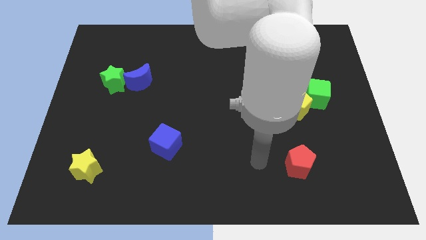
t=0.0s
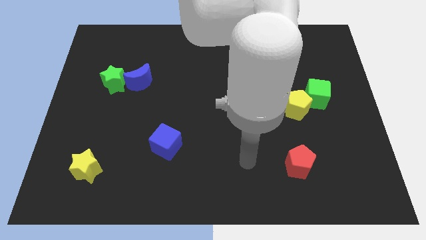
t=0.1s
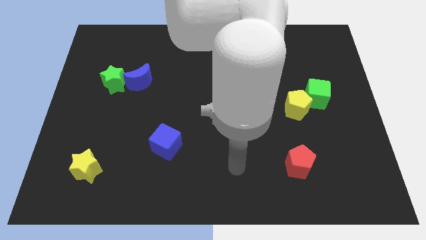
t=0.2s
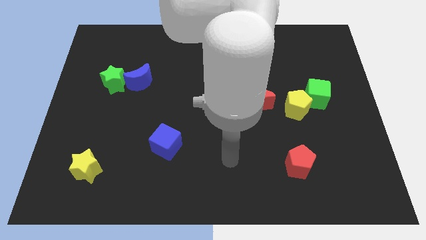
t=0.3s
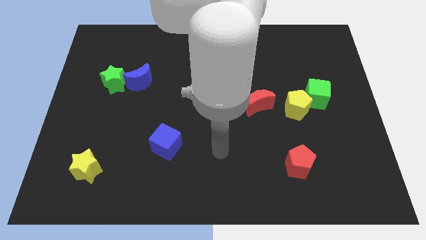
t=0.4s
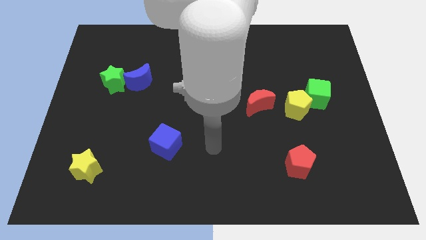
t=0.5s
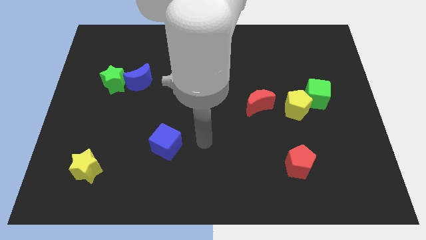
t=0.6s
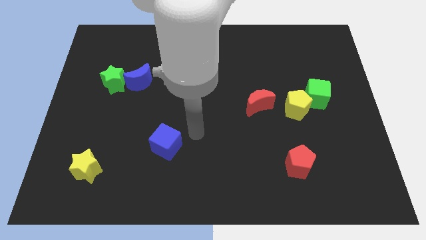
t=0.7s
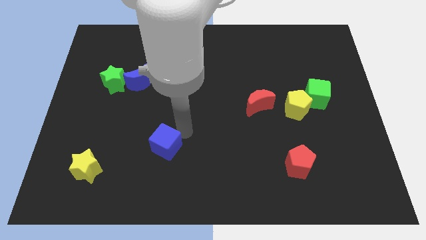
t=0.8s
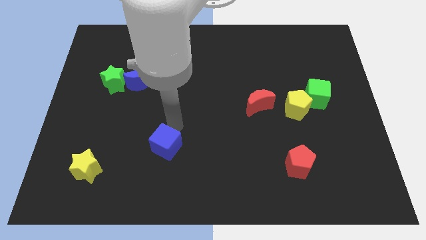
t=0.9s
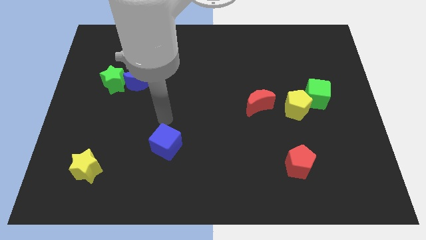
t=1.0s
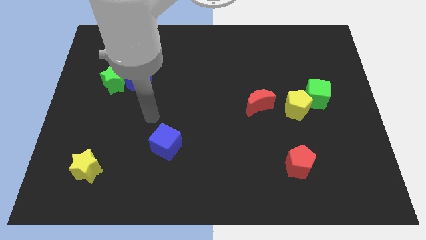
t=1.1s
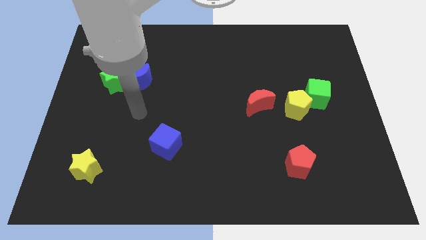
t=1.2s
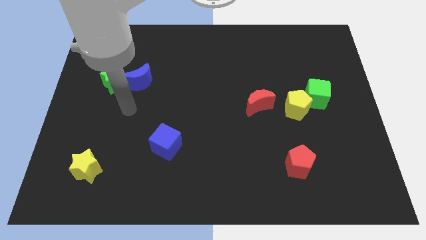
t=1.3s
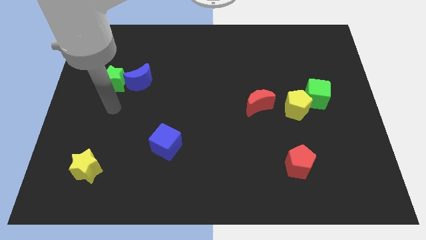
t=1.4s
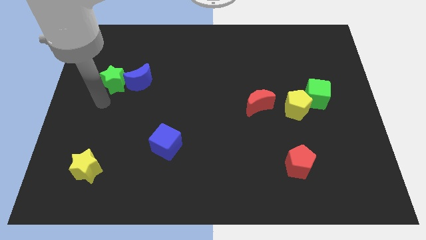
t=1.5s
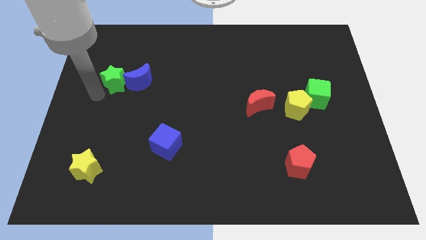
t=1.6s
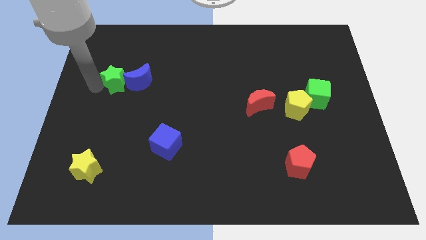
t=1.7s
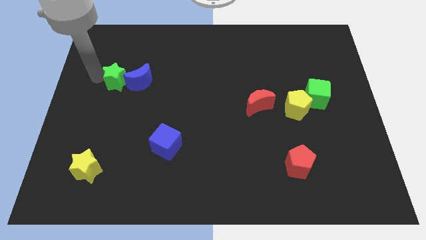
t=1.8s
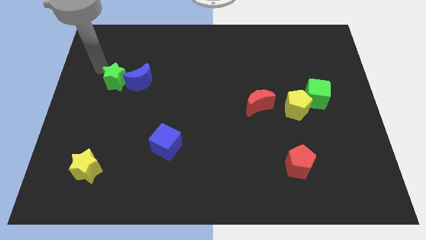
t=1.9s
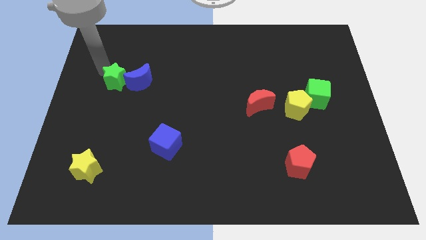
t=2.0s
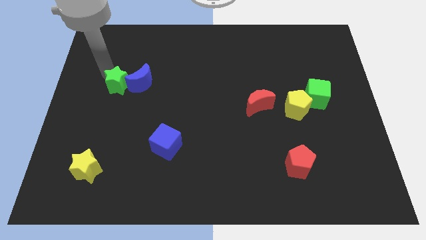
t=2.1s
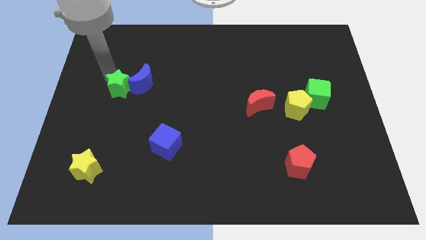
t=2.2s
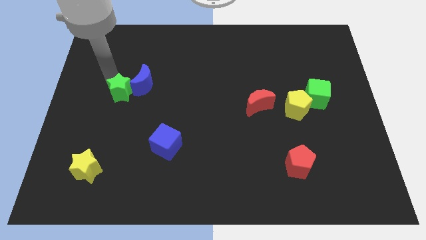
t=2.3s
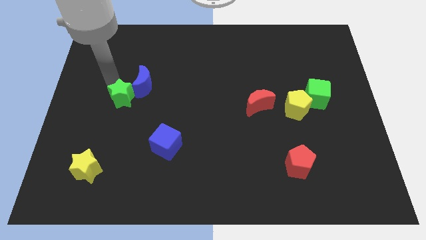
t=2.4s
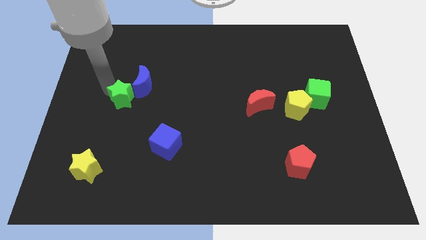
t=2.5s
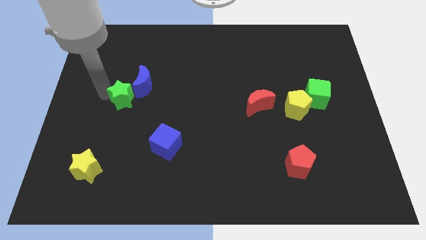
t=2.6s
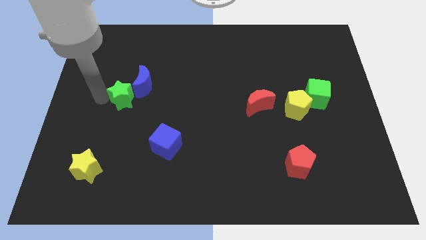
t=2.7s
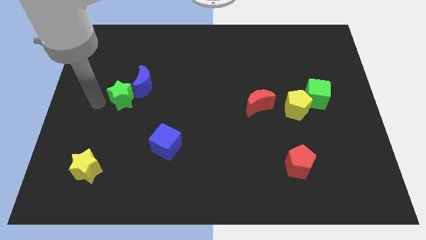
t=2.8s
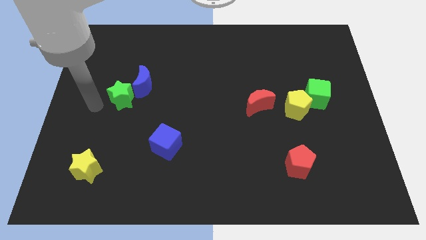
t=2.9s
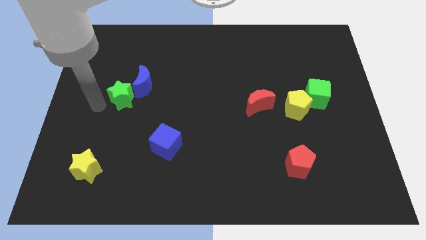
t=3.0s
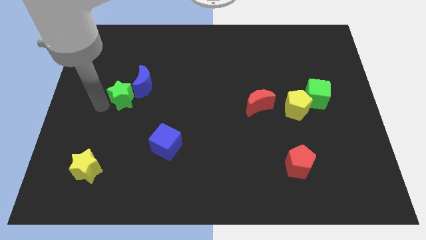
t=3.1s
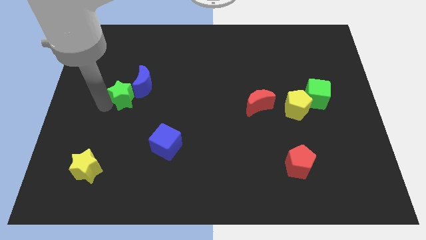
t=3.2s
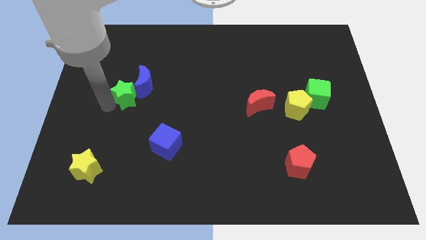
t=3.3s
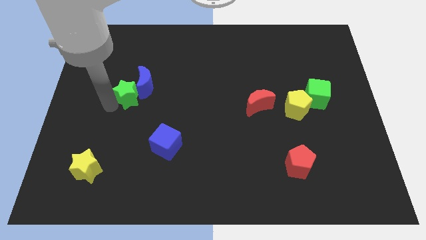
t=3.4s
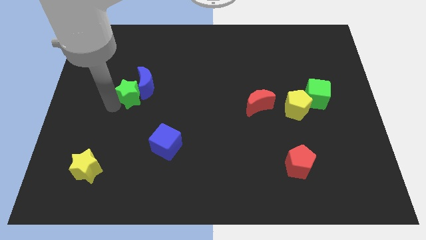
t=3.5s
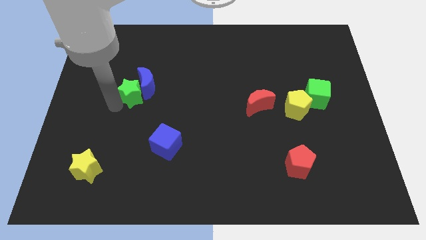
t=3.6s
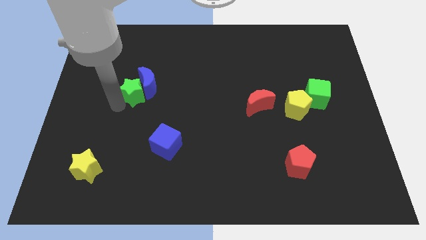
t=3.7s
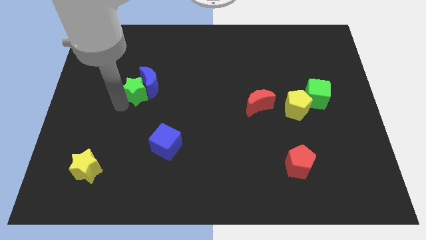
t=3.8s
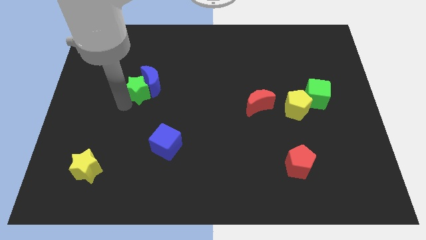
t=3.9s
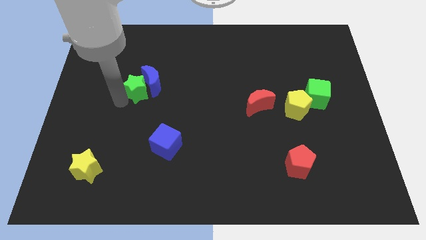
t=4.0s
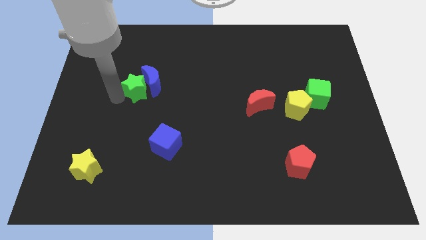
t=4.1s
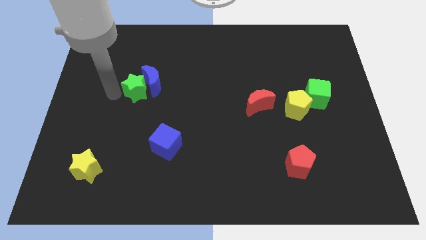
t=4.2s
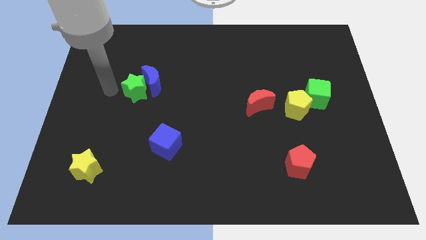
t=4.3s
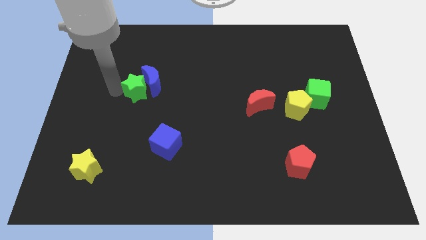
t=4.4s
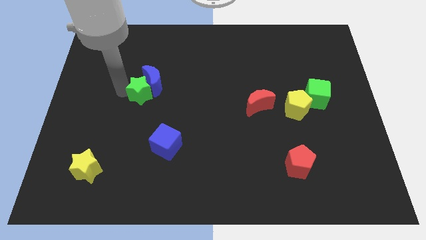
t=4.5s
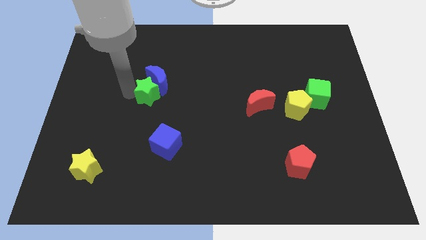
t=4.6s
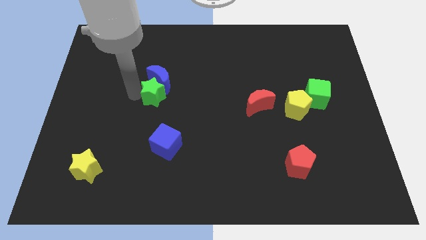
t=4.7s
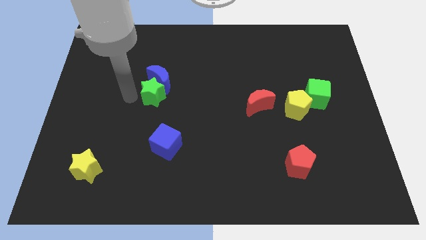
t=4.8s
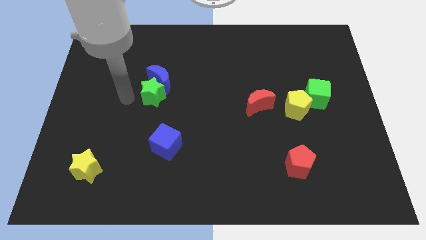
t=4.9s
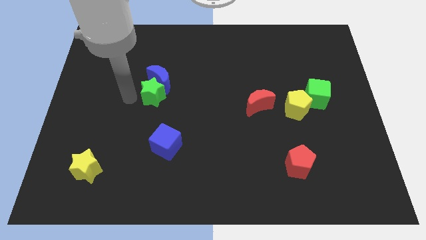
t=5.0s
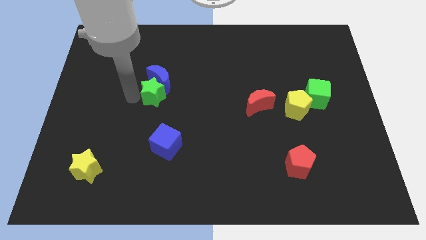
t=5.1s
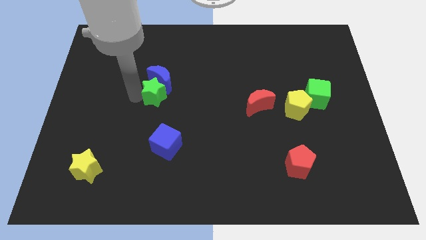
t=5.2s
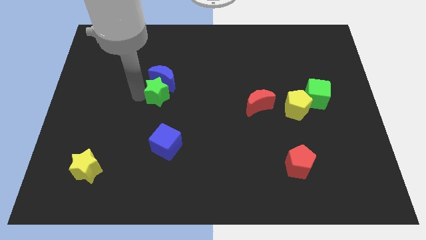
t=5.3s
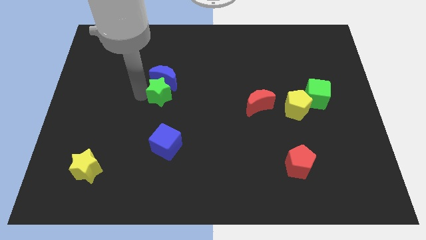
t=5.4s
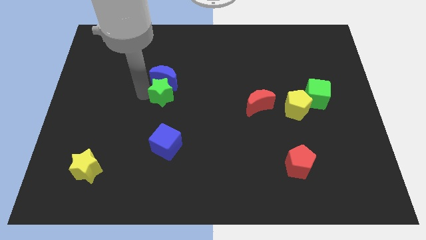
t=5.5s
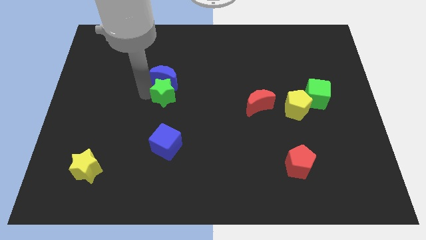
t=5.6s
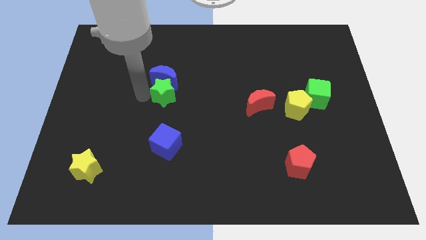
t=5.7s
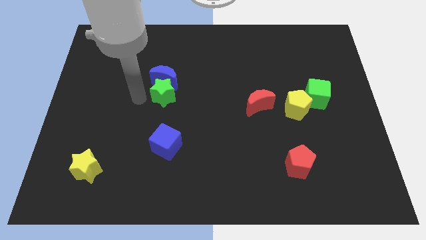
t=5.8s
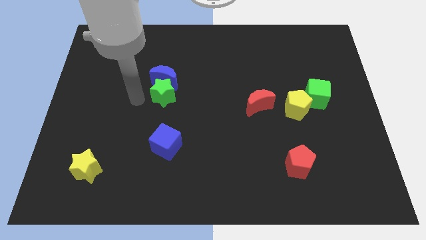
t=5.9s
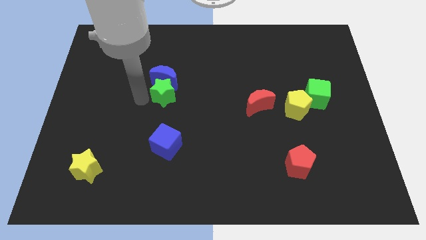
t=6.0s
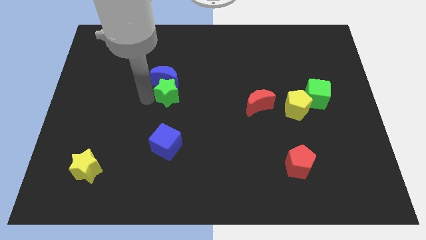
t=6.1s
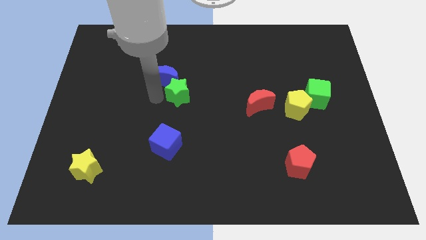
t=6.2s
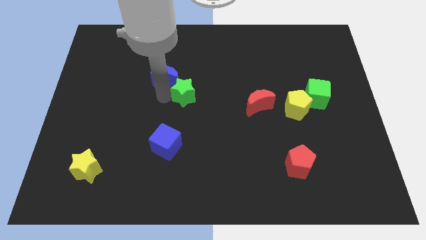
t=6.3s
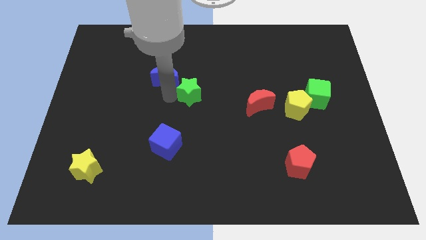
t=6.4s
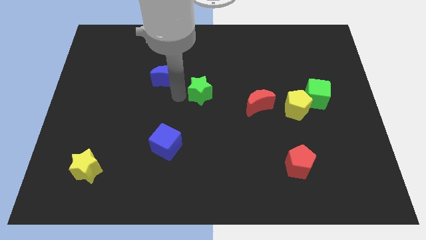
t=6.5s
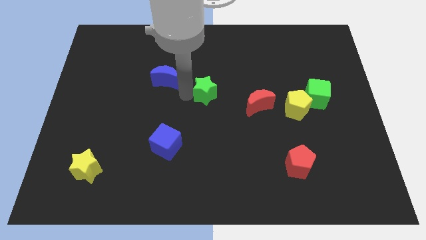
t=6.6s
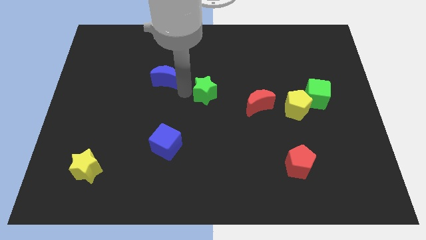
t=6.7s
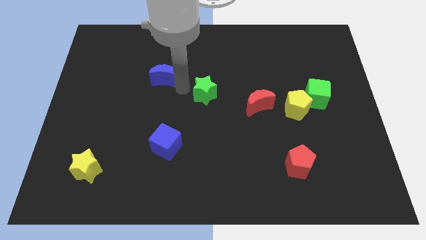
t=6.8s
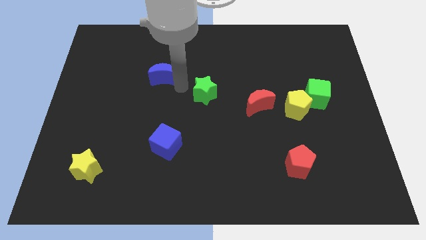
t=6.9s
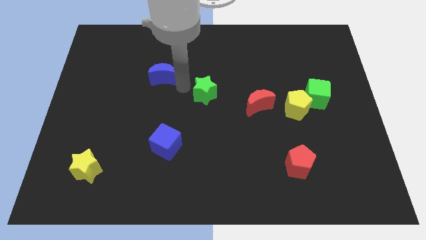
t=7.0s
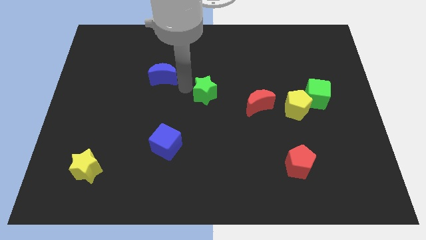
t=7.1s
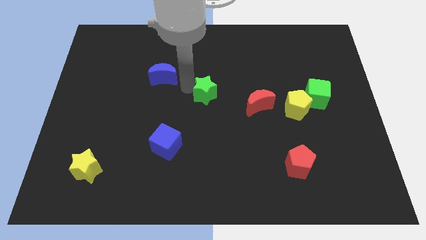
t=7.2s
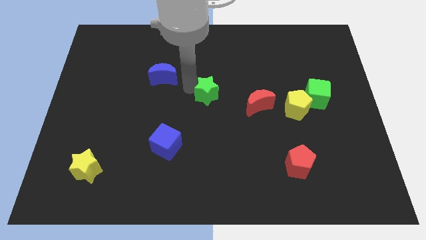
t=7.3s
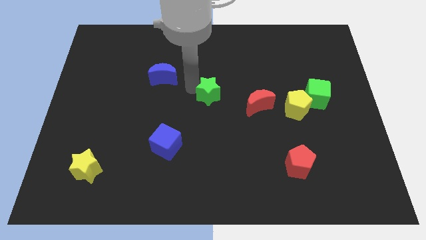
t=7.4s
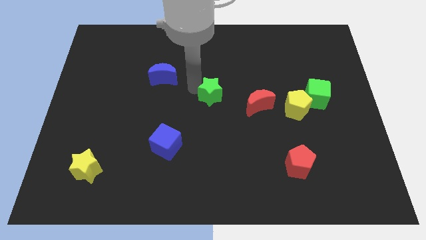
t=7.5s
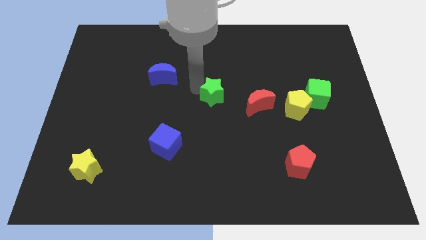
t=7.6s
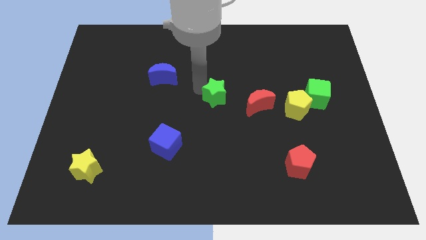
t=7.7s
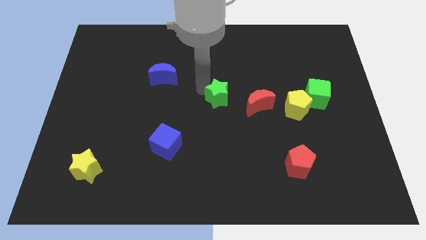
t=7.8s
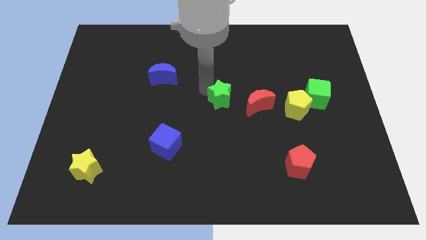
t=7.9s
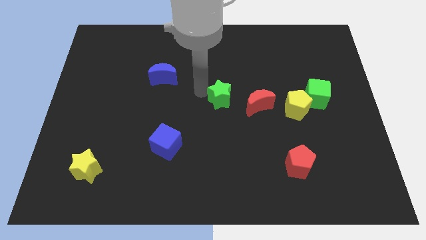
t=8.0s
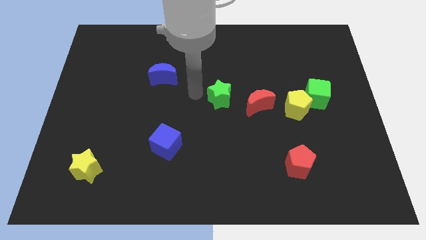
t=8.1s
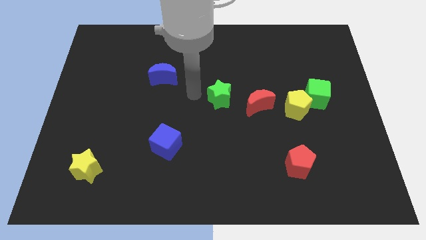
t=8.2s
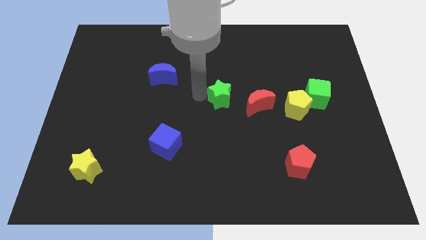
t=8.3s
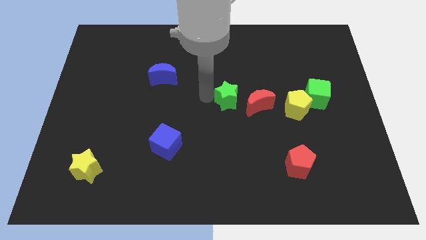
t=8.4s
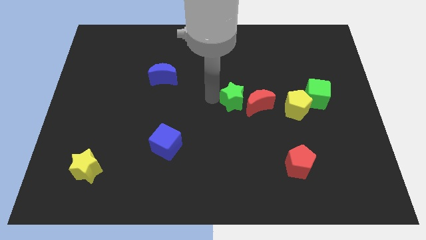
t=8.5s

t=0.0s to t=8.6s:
put the green star towards the red moon
